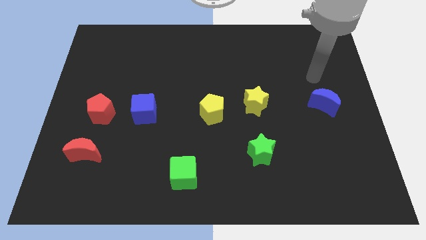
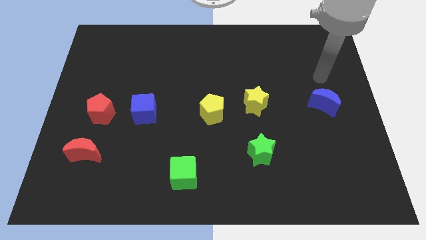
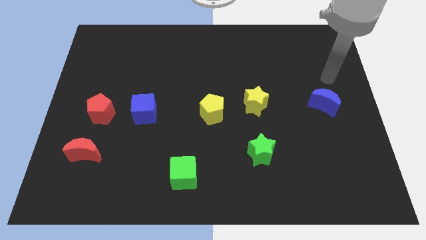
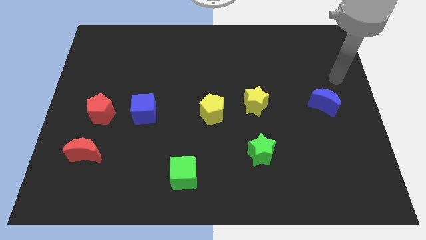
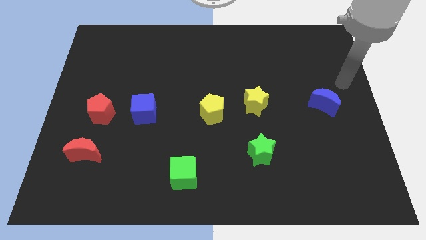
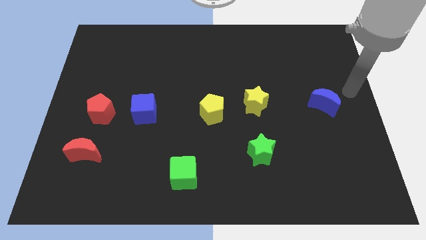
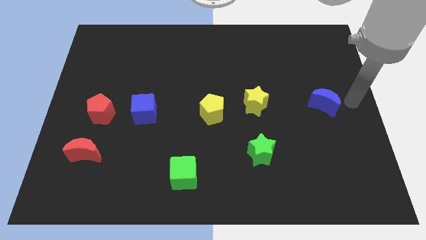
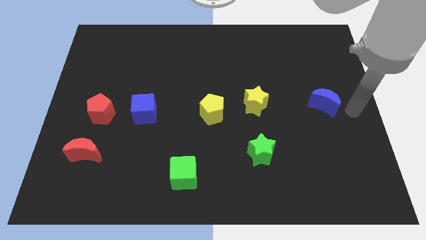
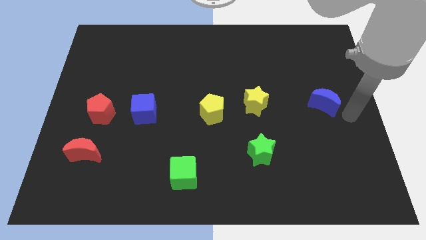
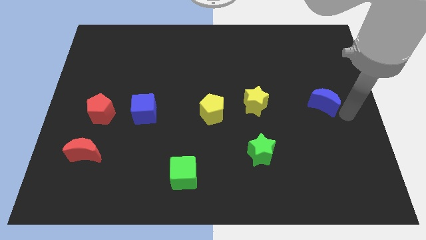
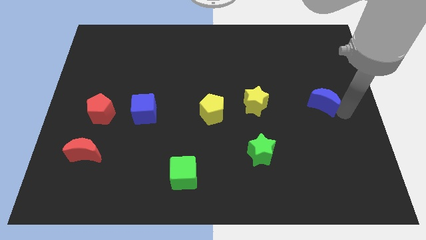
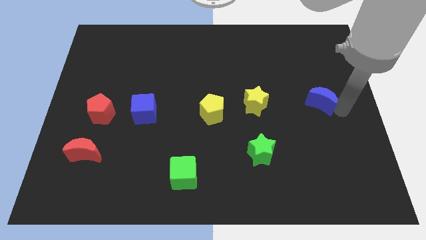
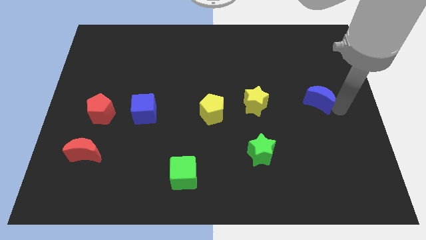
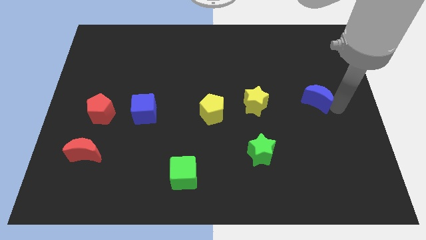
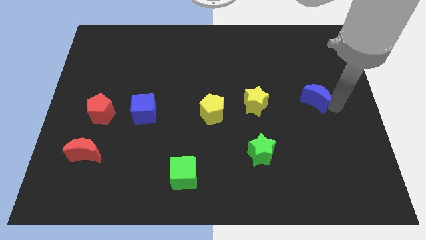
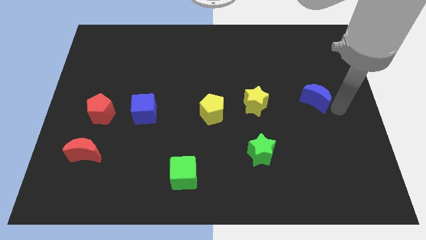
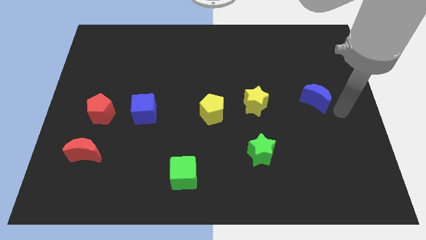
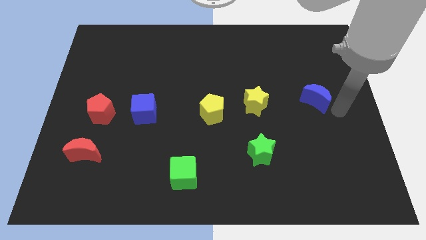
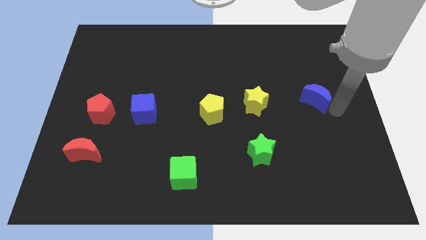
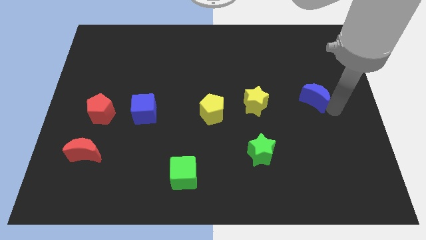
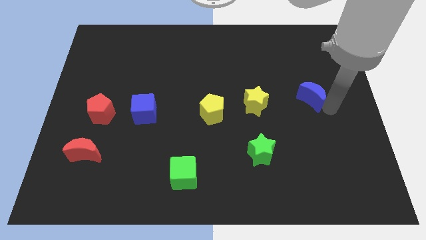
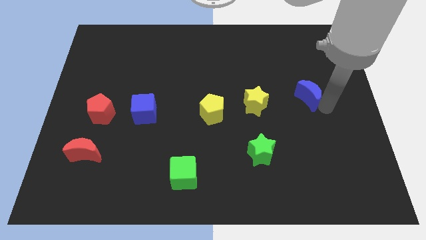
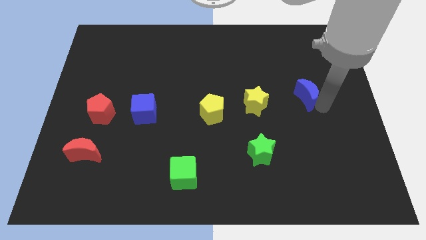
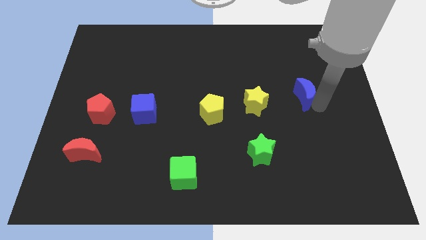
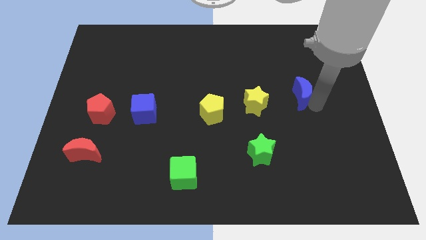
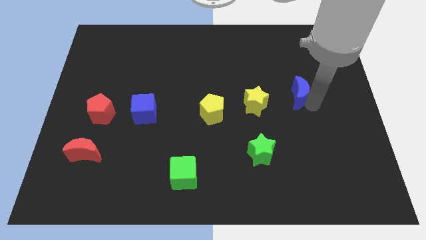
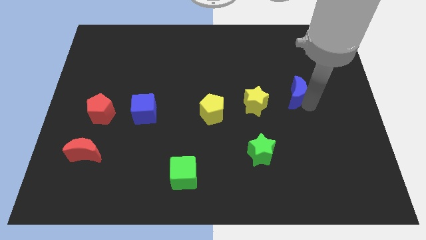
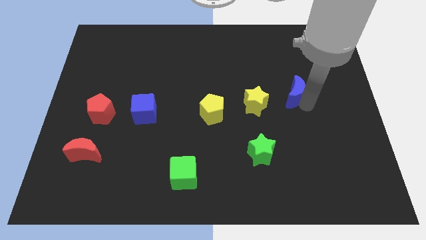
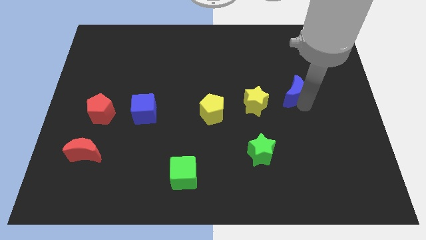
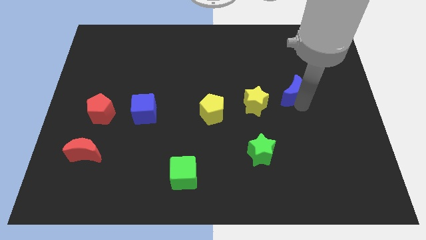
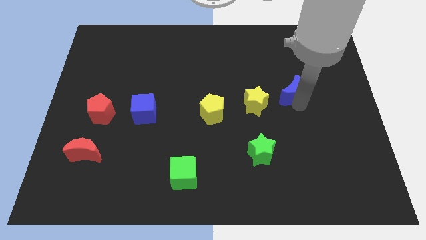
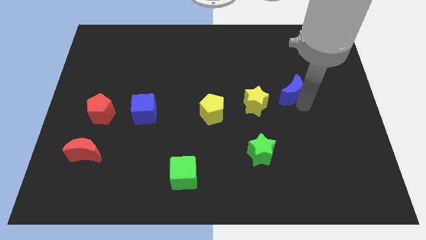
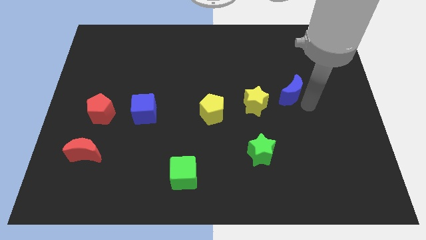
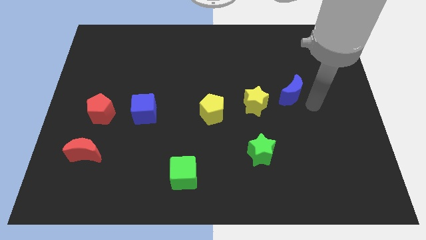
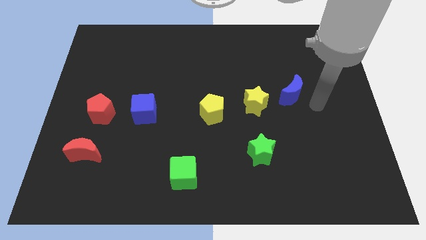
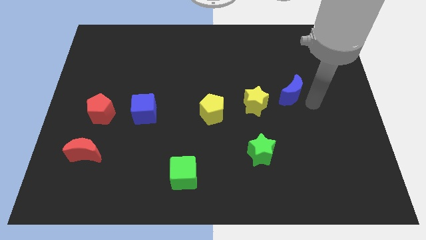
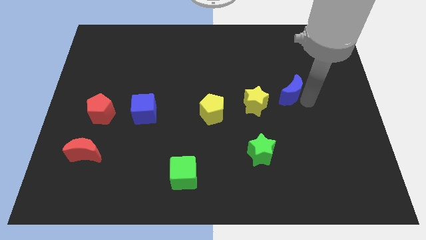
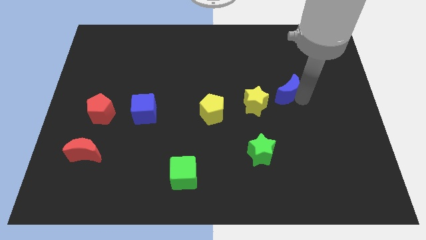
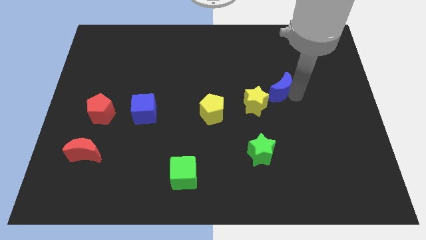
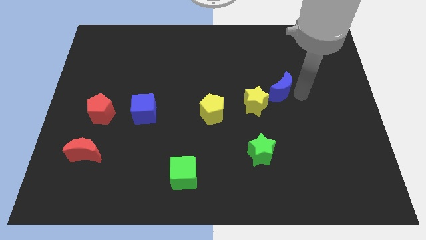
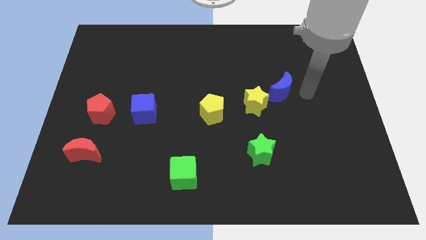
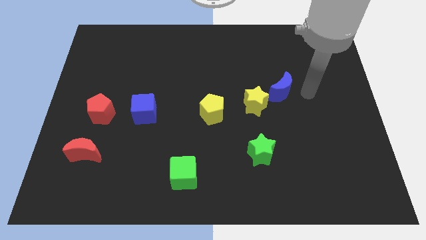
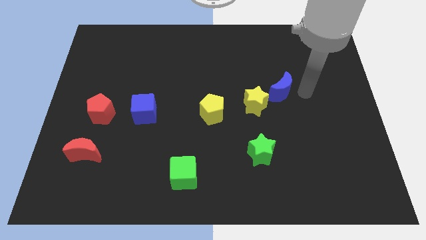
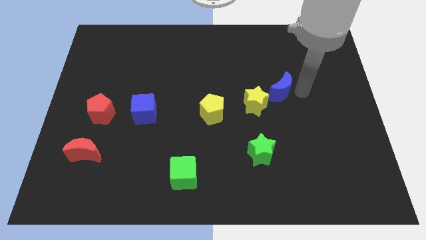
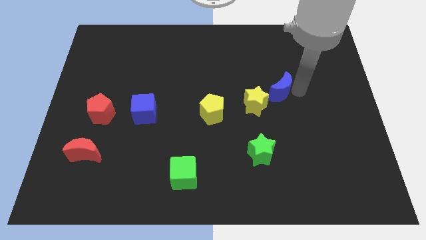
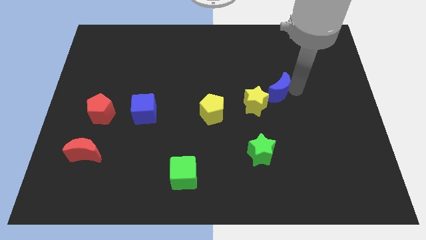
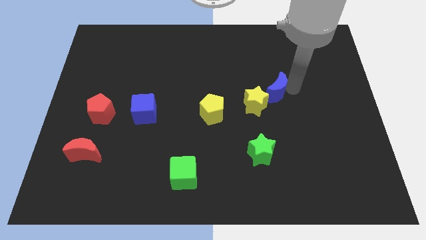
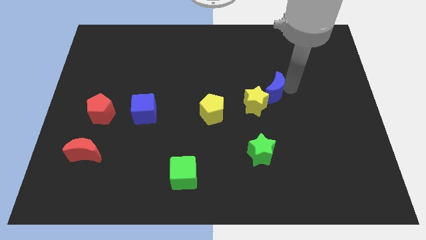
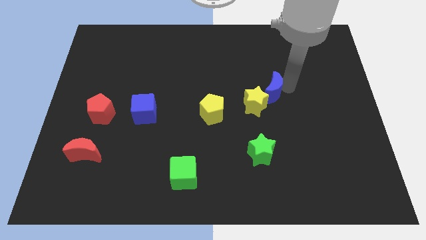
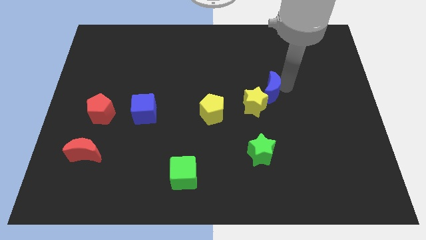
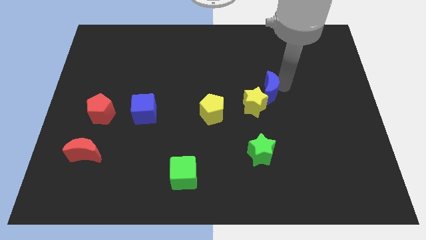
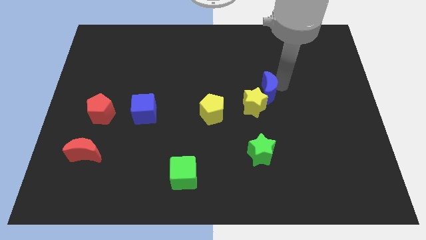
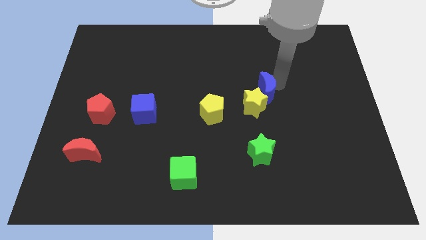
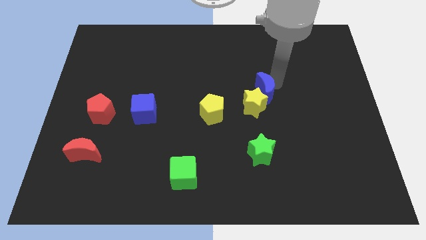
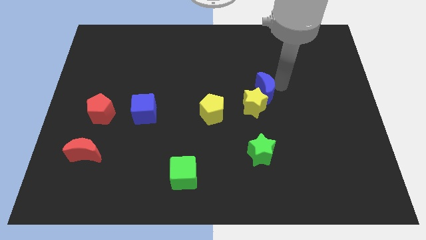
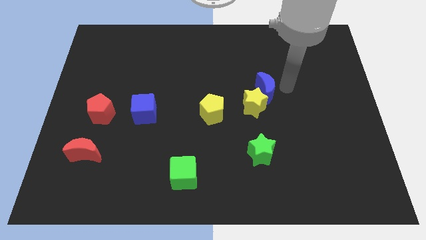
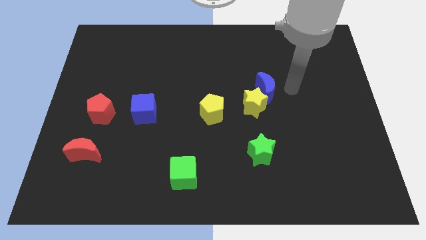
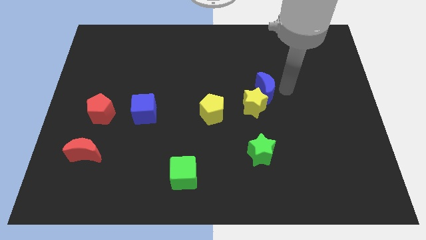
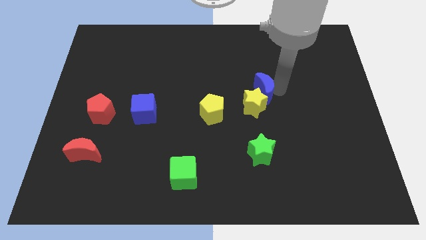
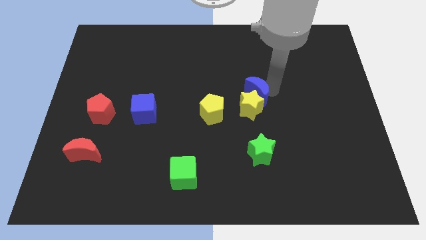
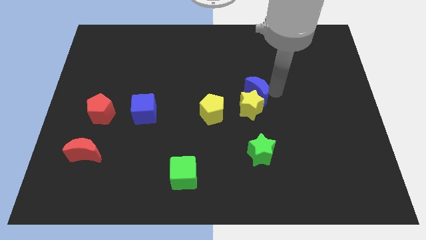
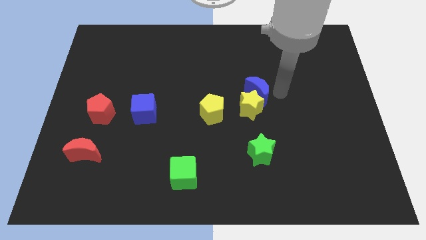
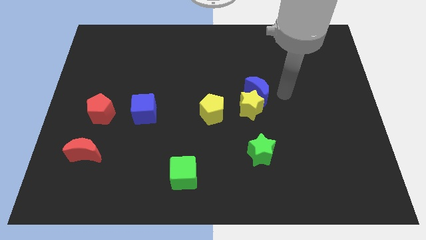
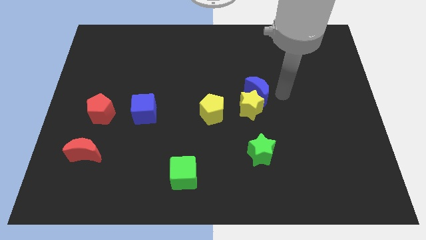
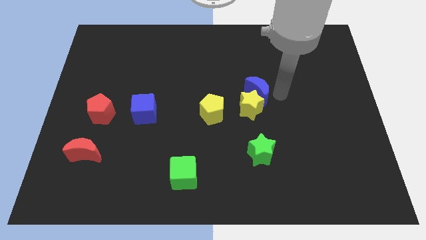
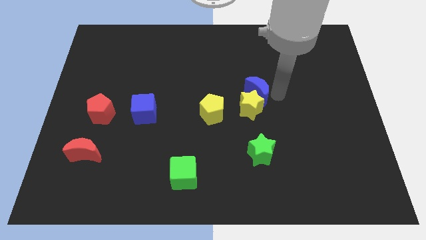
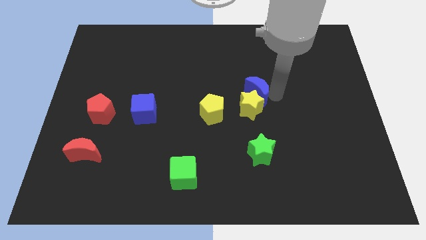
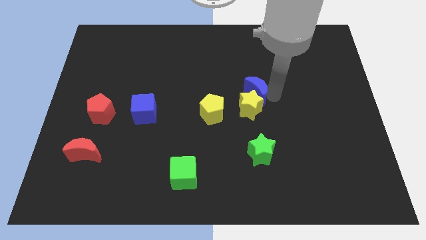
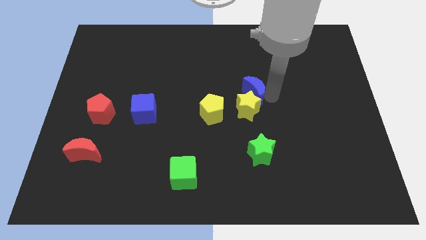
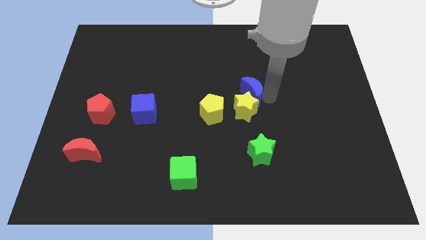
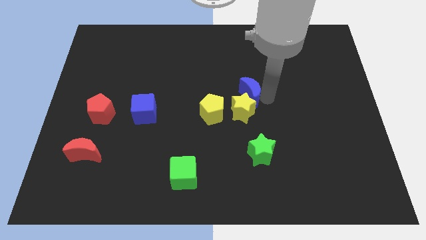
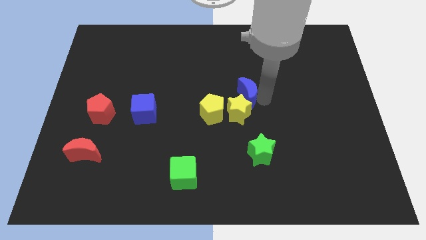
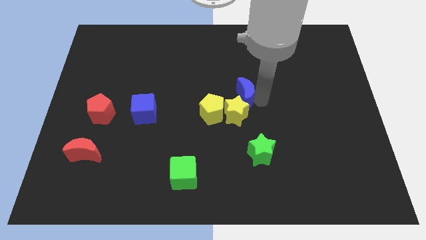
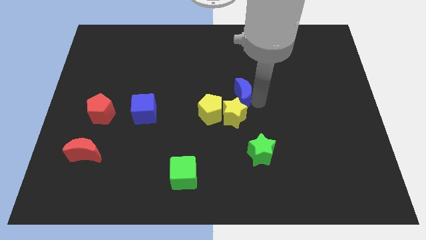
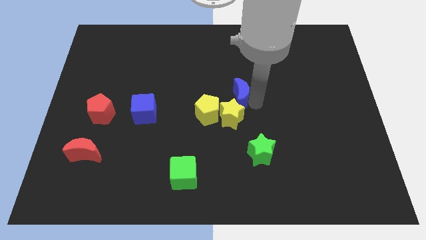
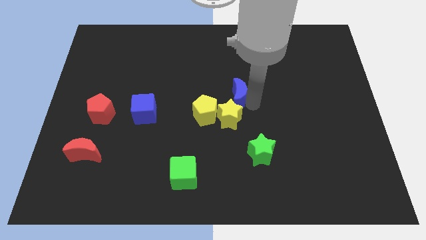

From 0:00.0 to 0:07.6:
slide the blue moon to the left

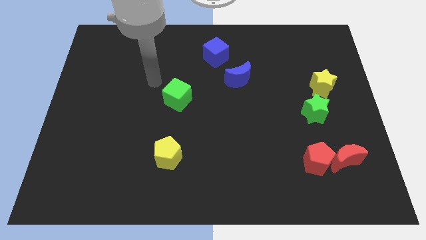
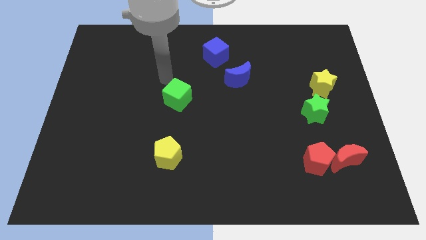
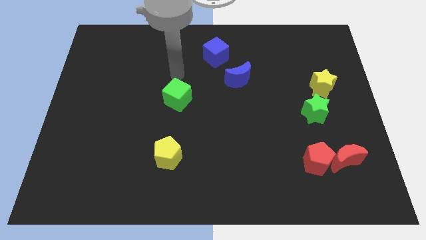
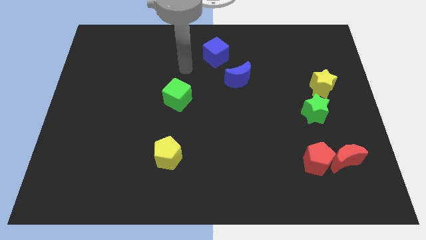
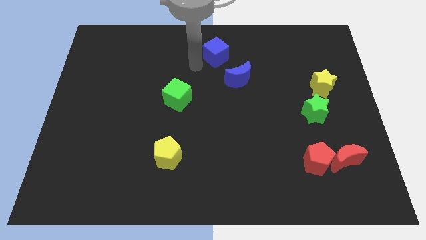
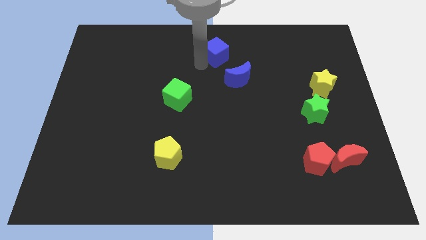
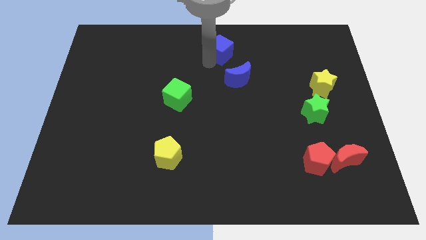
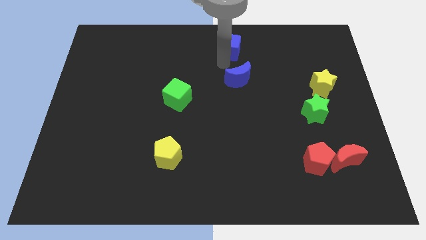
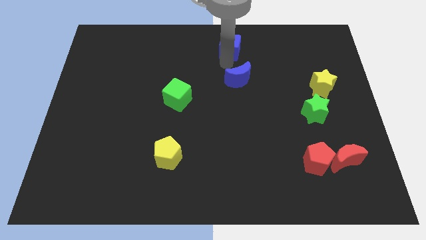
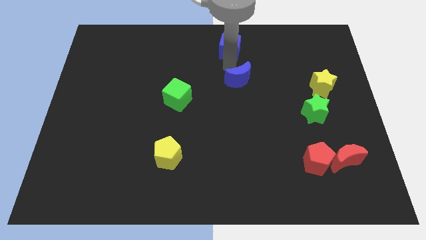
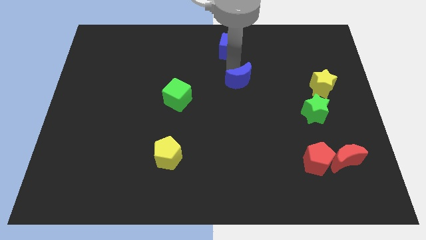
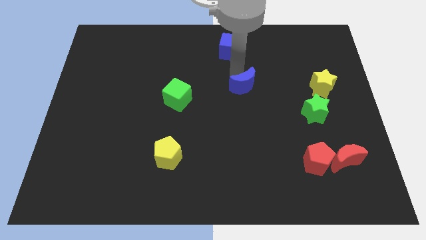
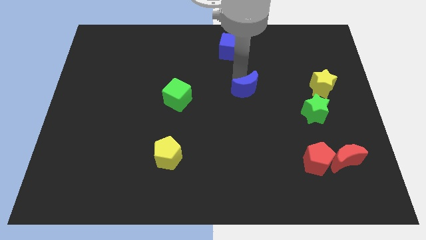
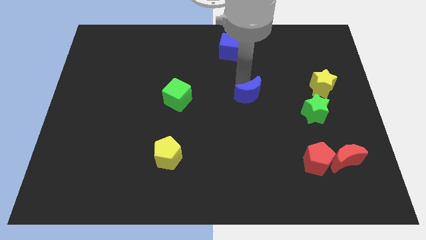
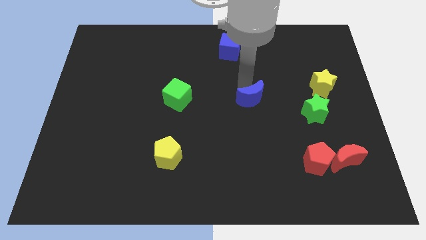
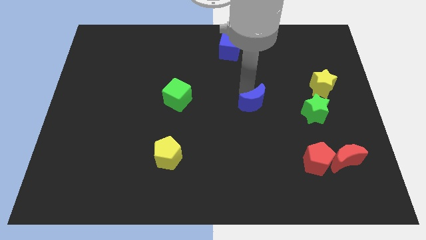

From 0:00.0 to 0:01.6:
push the blue moon diagonally downwards and right slightly
